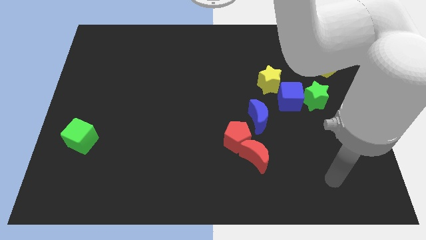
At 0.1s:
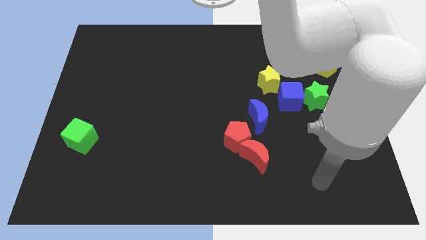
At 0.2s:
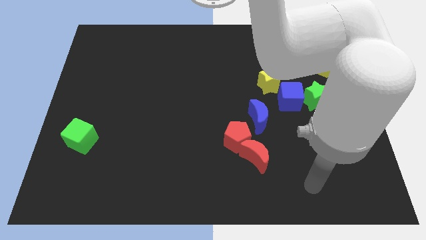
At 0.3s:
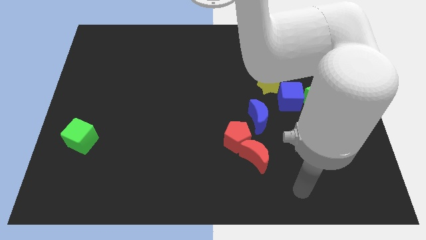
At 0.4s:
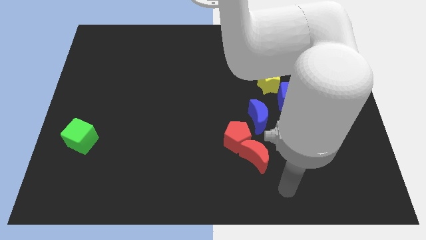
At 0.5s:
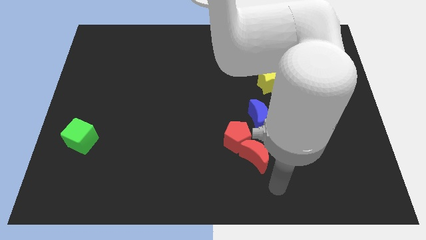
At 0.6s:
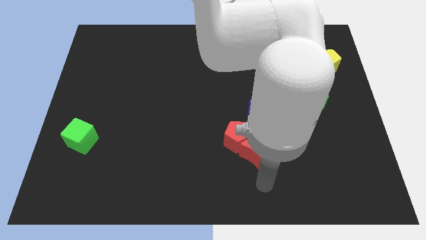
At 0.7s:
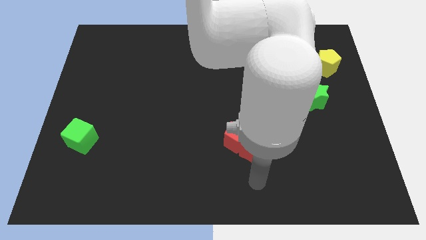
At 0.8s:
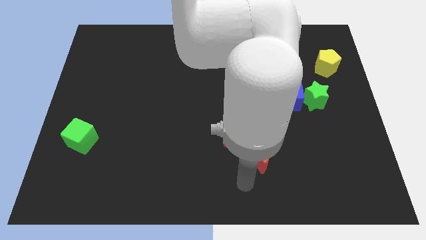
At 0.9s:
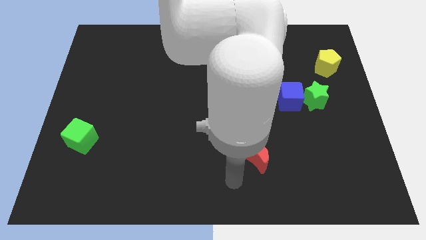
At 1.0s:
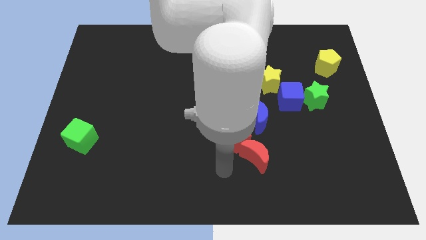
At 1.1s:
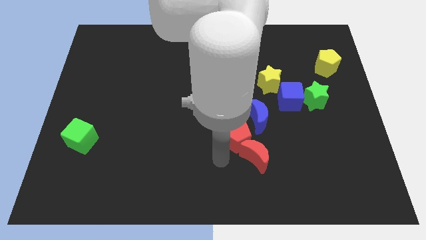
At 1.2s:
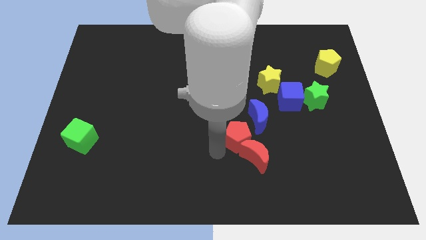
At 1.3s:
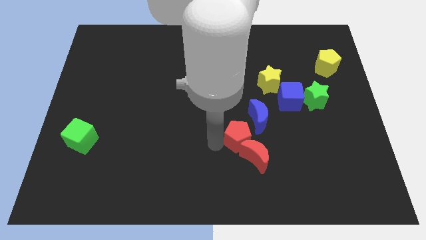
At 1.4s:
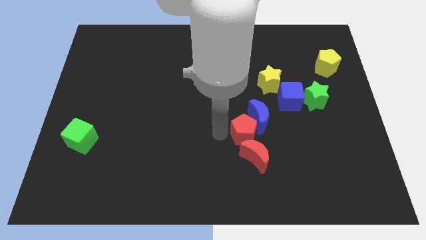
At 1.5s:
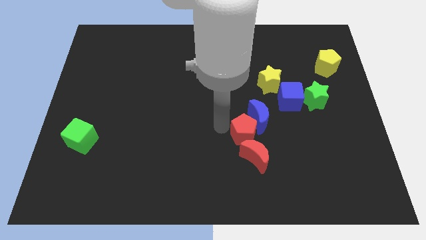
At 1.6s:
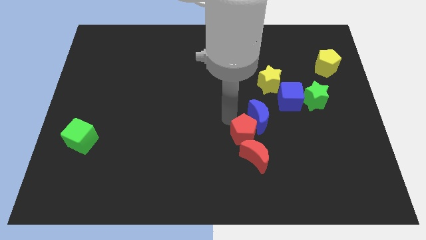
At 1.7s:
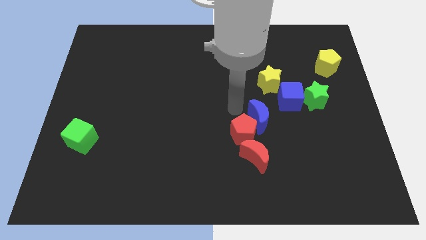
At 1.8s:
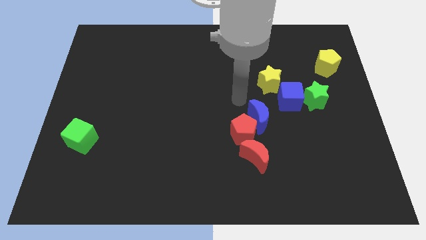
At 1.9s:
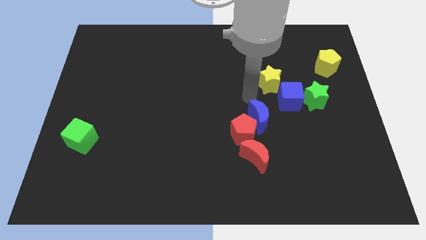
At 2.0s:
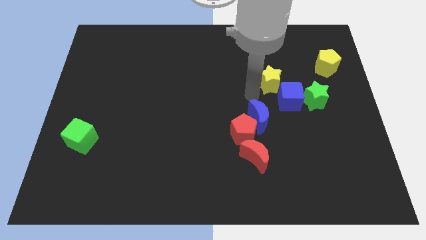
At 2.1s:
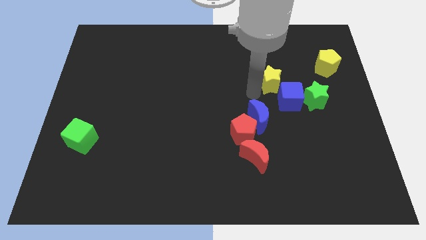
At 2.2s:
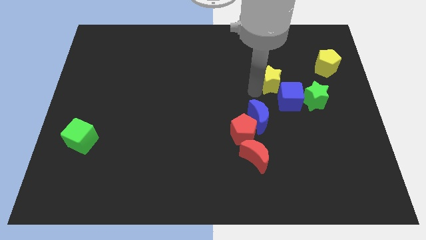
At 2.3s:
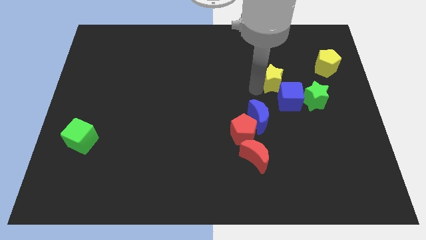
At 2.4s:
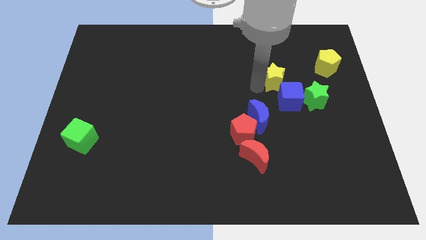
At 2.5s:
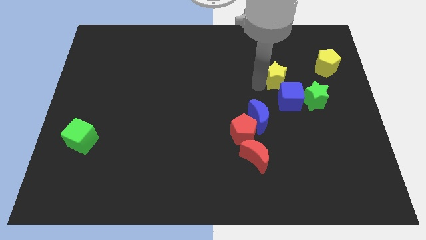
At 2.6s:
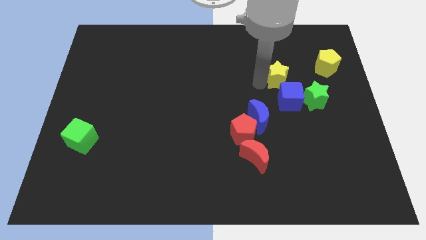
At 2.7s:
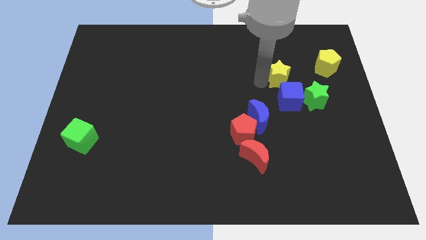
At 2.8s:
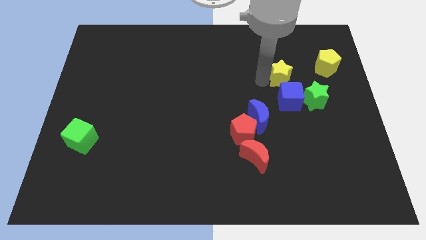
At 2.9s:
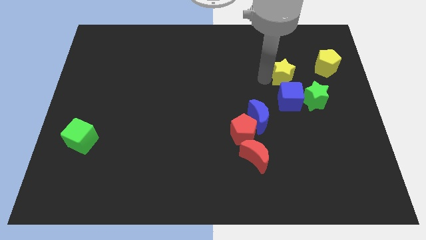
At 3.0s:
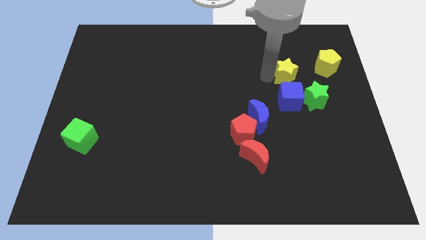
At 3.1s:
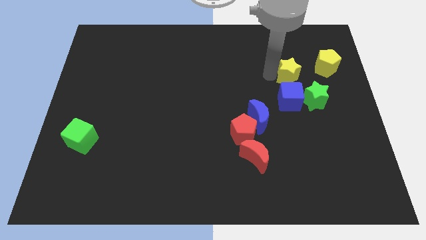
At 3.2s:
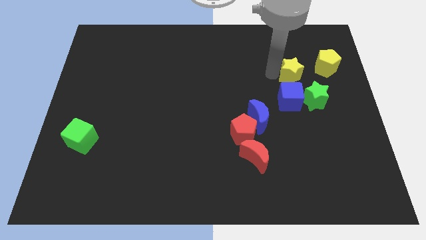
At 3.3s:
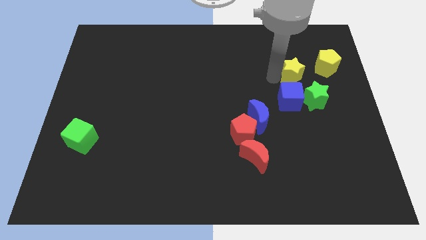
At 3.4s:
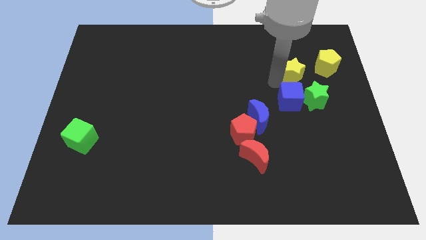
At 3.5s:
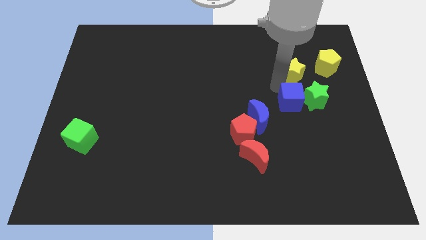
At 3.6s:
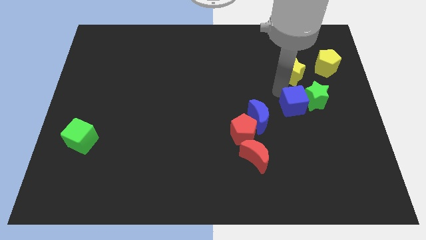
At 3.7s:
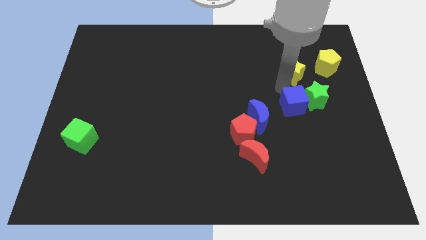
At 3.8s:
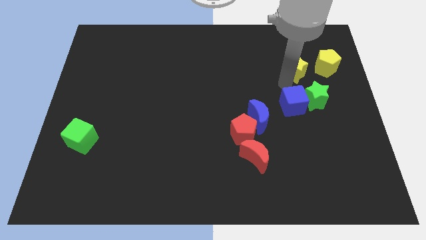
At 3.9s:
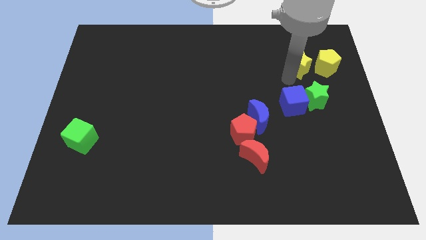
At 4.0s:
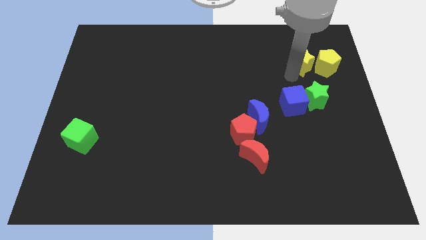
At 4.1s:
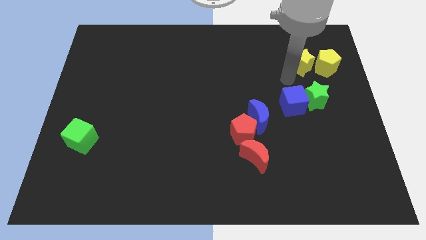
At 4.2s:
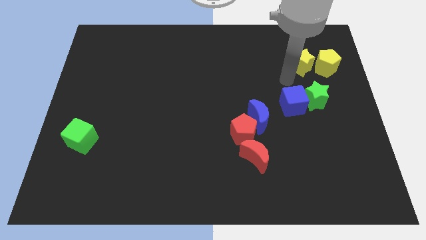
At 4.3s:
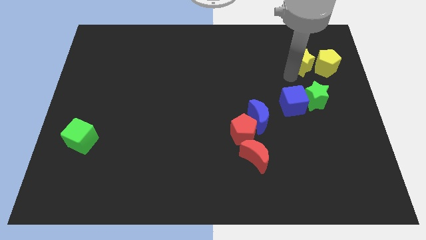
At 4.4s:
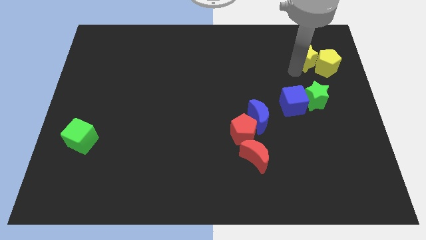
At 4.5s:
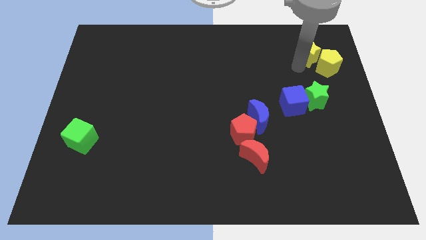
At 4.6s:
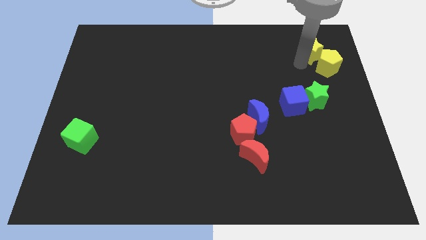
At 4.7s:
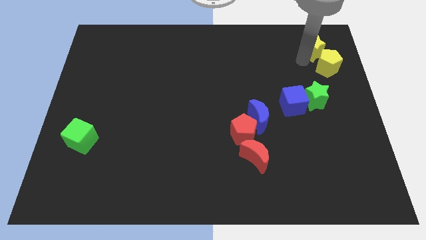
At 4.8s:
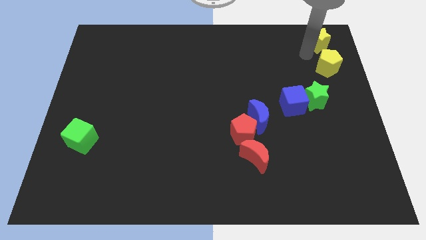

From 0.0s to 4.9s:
put the yellow star to the top right of the board

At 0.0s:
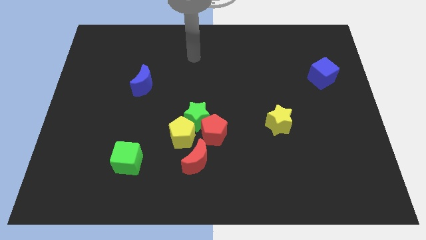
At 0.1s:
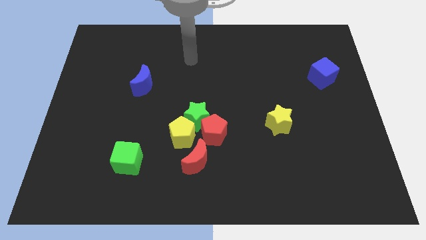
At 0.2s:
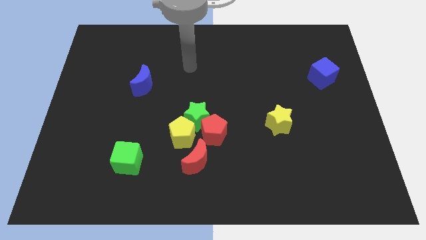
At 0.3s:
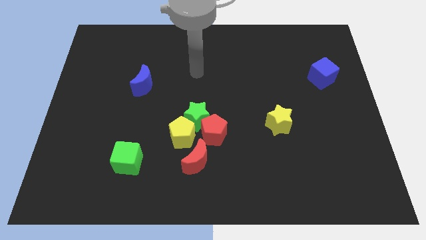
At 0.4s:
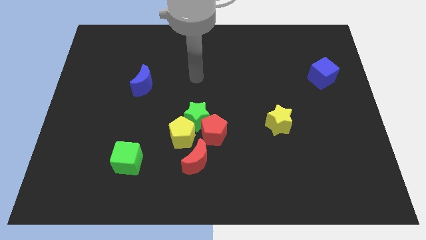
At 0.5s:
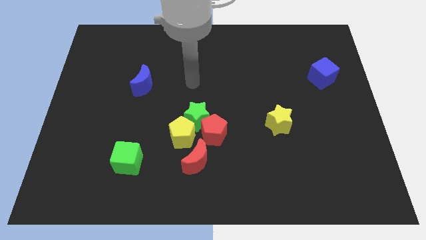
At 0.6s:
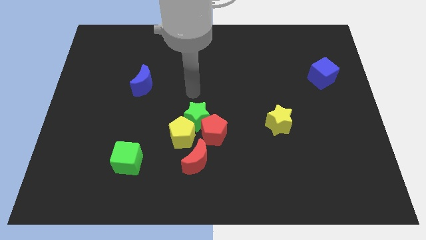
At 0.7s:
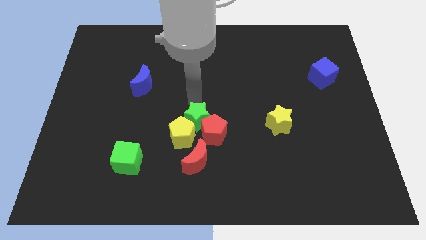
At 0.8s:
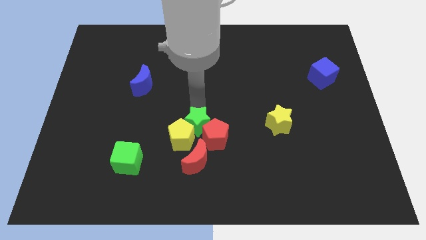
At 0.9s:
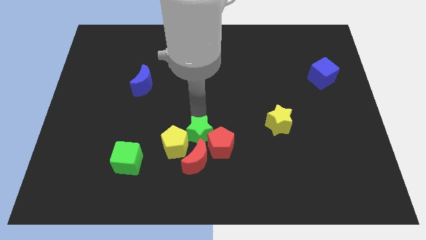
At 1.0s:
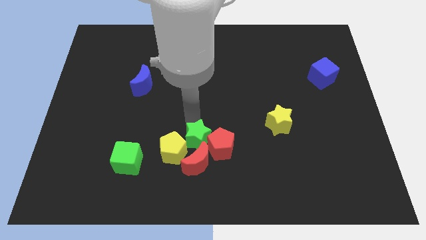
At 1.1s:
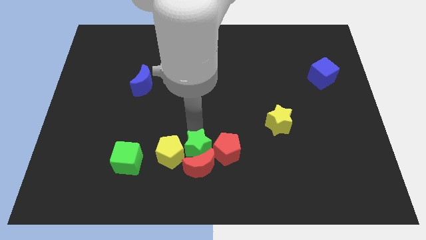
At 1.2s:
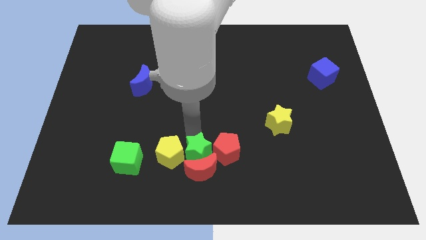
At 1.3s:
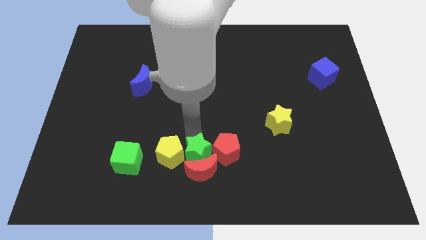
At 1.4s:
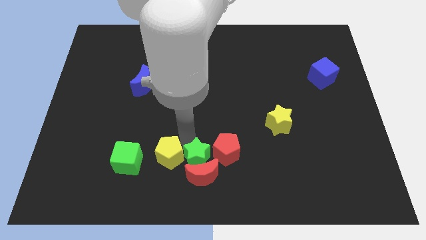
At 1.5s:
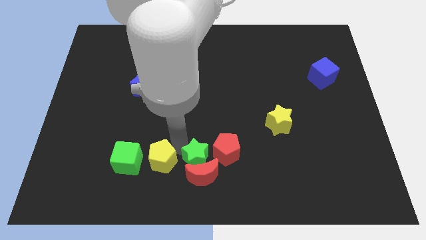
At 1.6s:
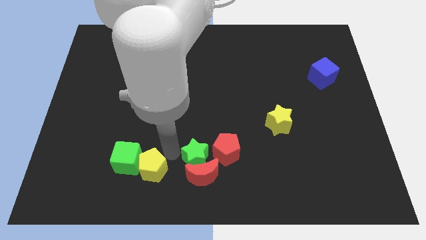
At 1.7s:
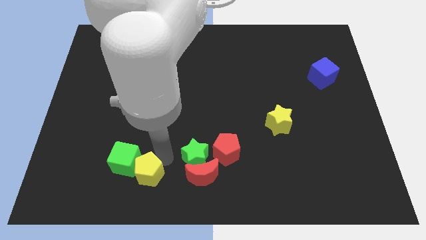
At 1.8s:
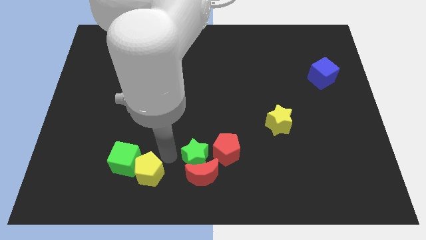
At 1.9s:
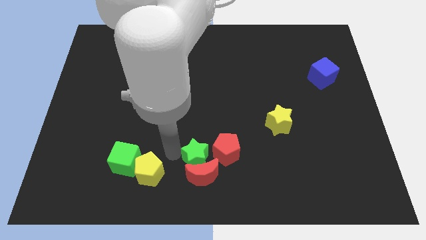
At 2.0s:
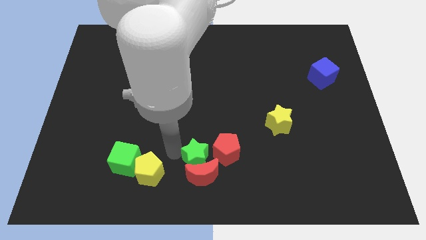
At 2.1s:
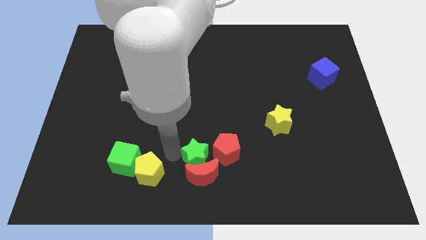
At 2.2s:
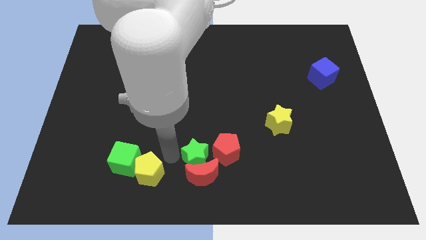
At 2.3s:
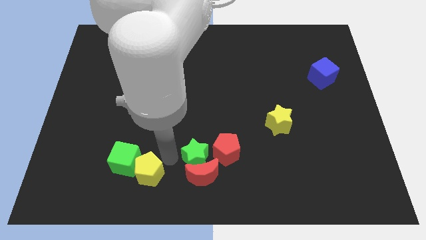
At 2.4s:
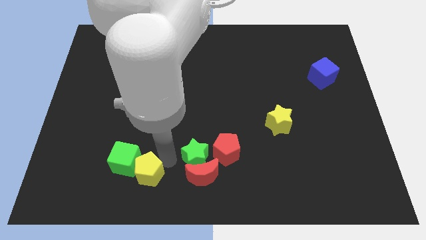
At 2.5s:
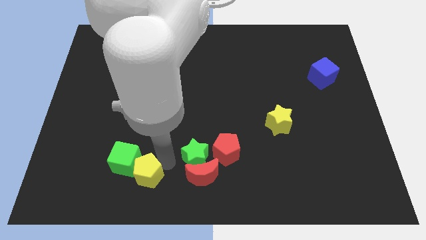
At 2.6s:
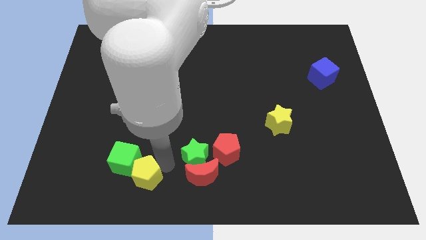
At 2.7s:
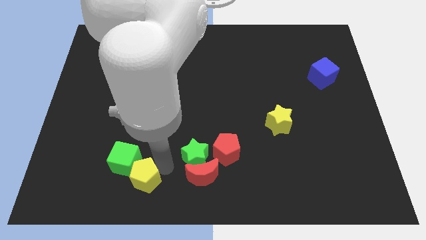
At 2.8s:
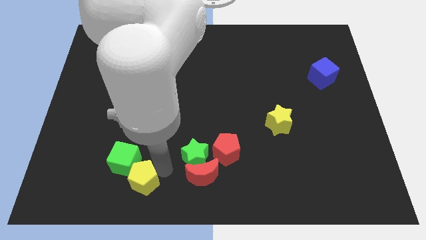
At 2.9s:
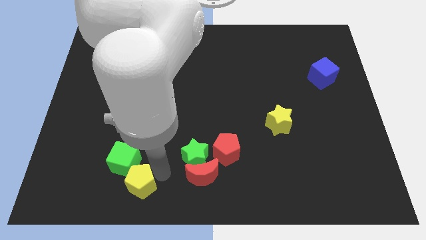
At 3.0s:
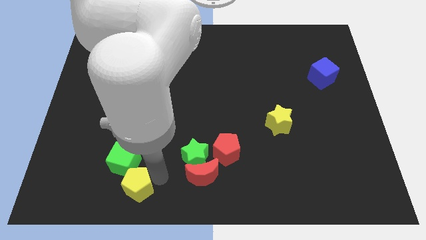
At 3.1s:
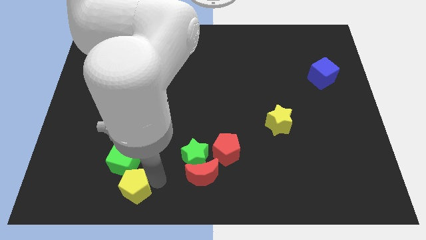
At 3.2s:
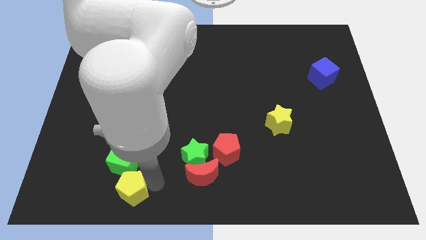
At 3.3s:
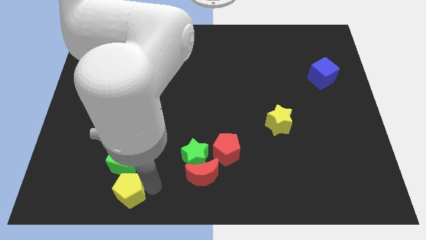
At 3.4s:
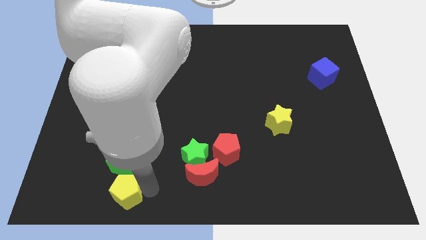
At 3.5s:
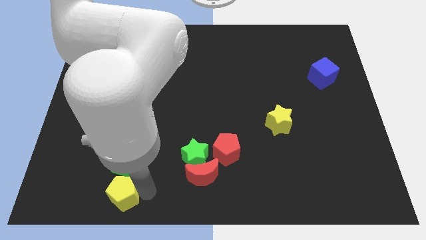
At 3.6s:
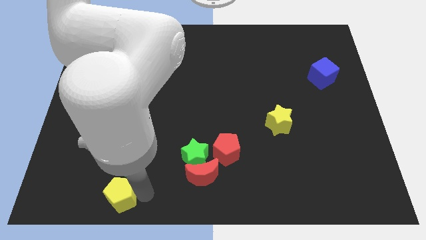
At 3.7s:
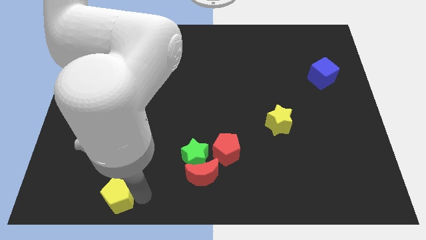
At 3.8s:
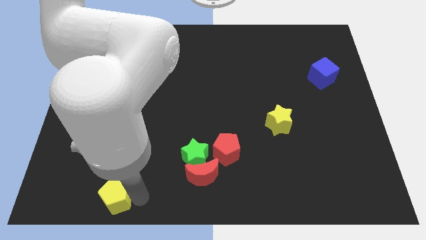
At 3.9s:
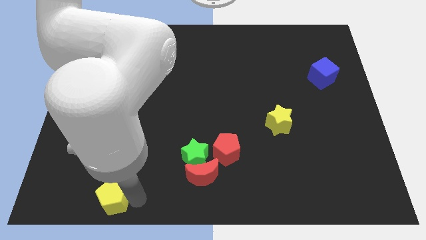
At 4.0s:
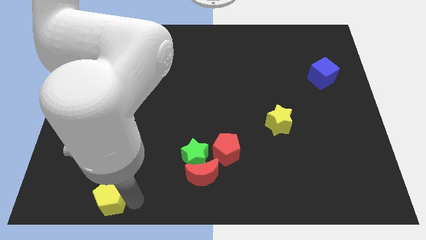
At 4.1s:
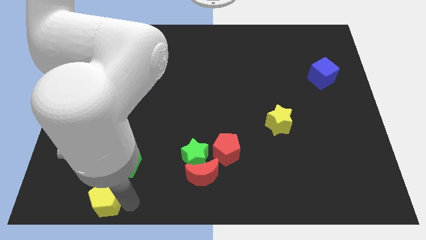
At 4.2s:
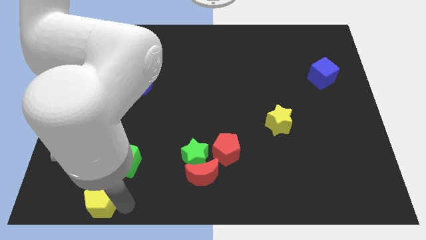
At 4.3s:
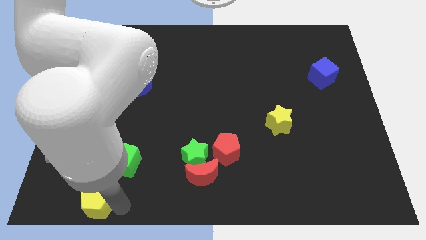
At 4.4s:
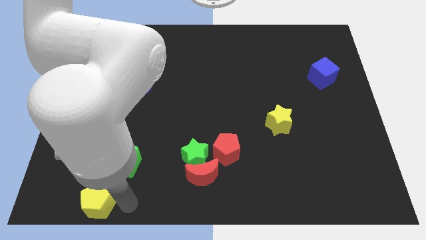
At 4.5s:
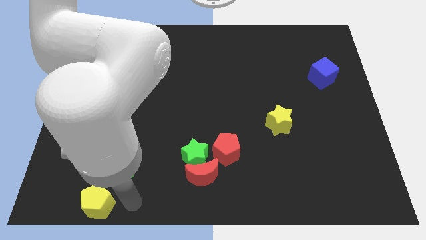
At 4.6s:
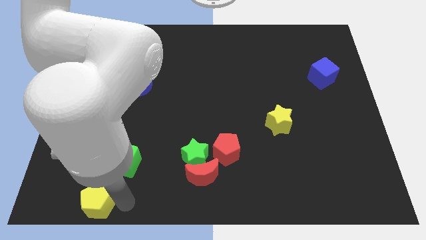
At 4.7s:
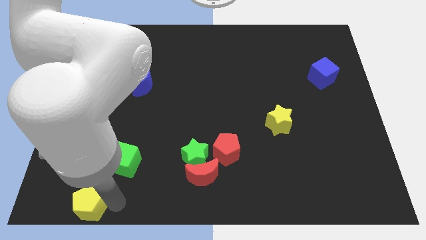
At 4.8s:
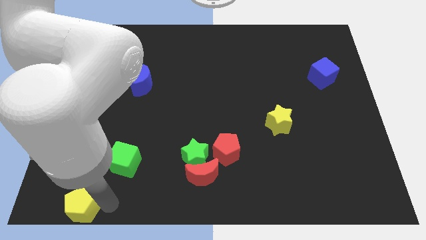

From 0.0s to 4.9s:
push the yellow pentagon to the bottom left
